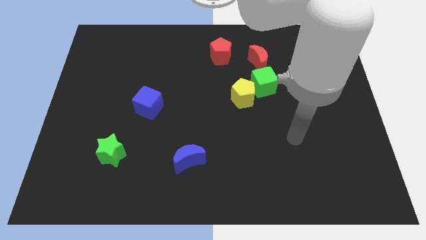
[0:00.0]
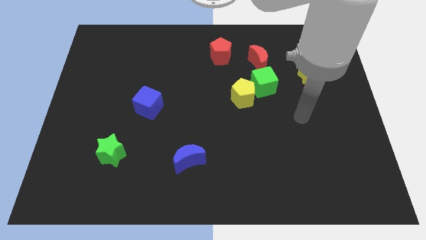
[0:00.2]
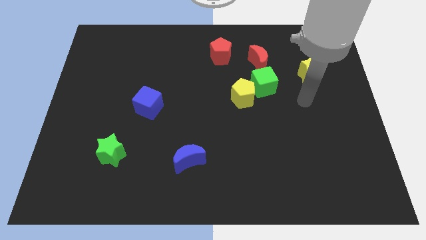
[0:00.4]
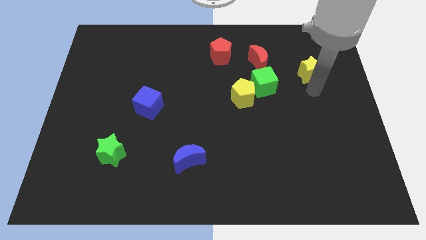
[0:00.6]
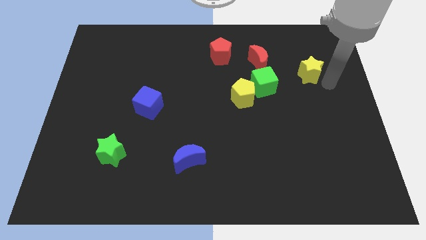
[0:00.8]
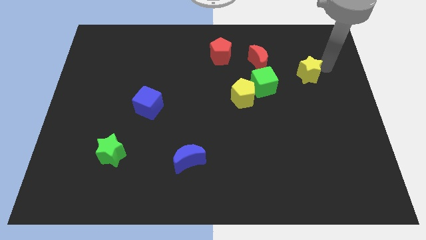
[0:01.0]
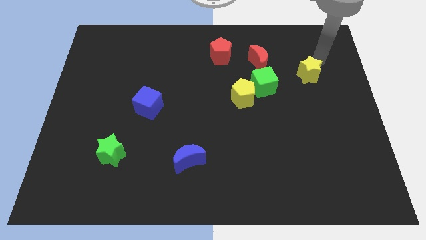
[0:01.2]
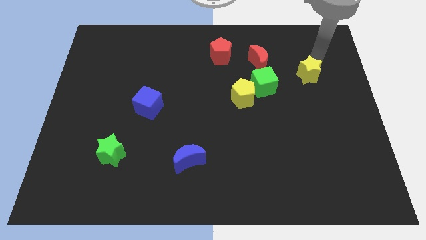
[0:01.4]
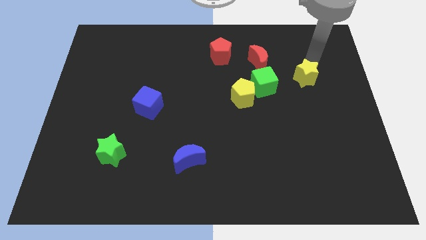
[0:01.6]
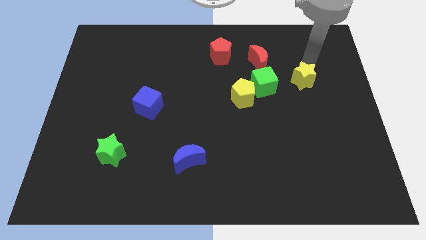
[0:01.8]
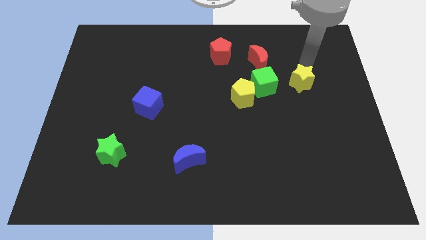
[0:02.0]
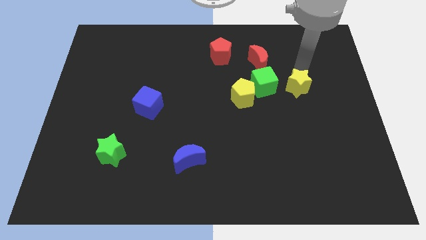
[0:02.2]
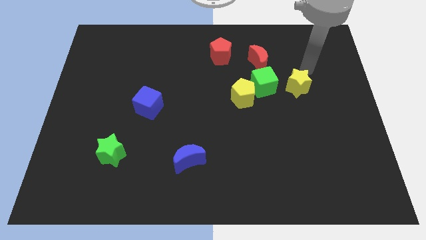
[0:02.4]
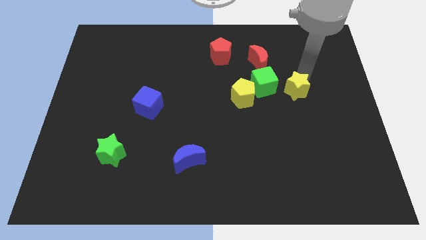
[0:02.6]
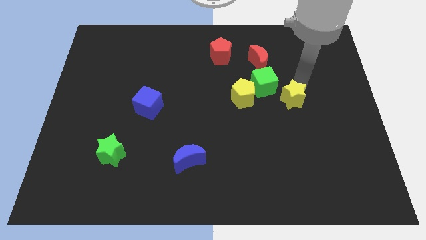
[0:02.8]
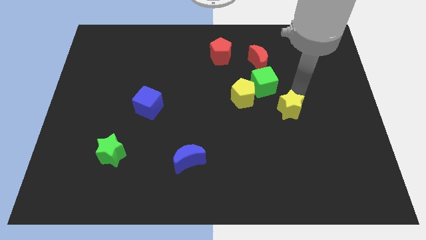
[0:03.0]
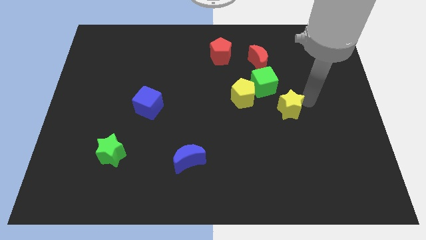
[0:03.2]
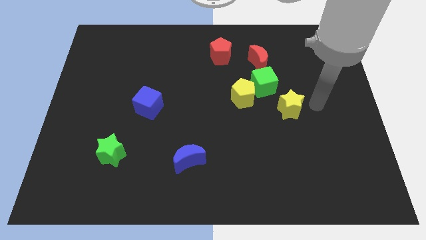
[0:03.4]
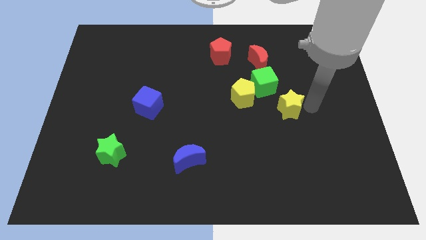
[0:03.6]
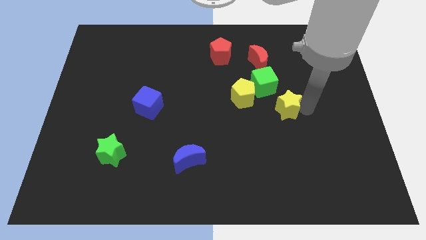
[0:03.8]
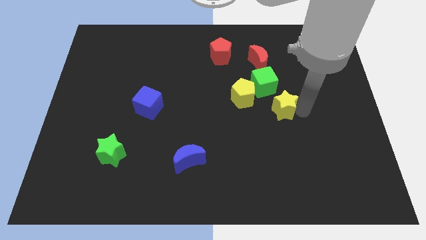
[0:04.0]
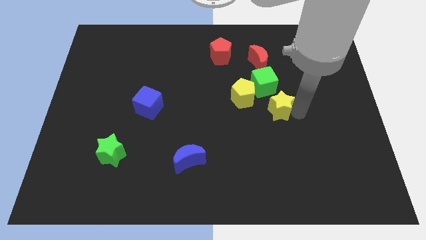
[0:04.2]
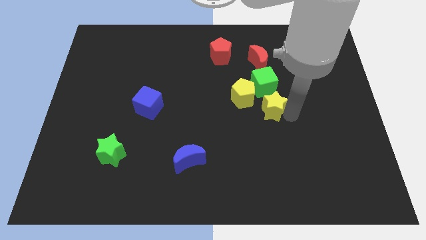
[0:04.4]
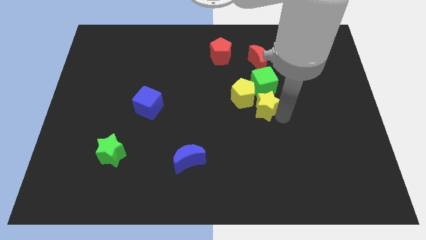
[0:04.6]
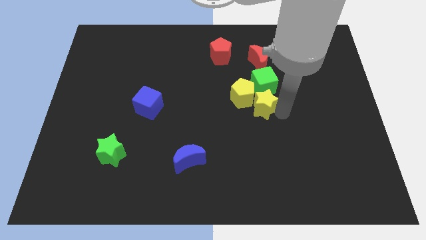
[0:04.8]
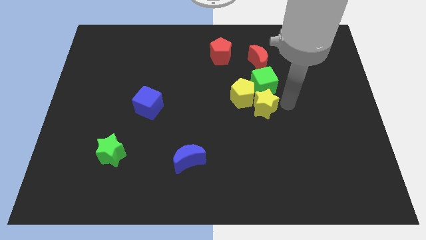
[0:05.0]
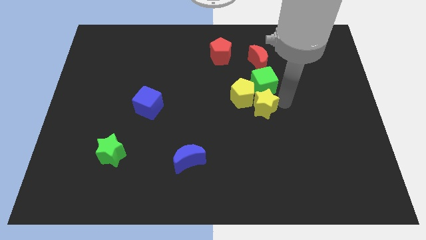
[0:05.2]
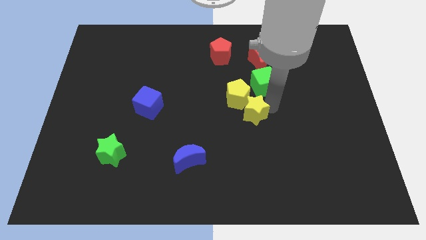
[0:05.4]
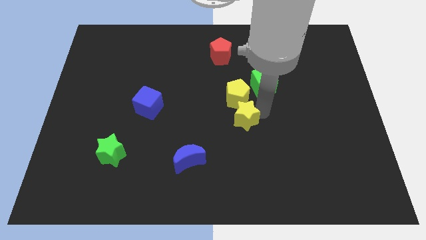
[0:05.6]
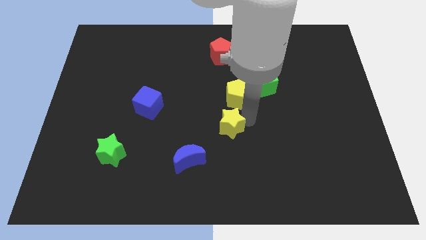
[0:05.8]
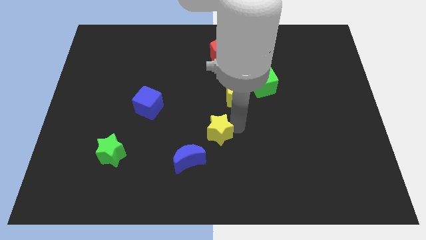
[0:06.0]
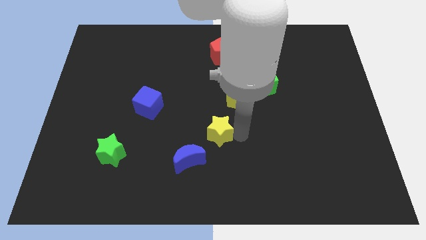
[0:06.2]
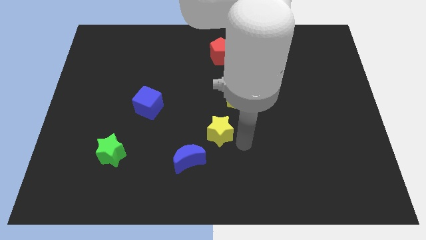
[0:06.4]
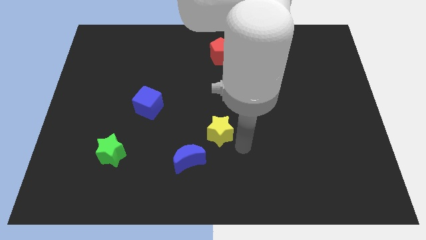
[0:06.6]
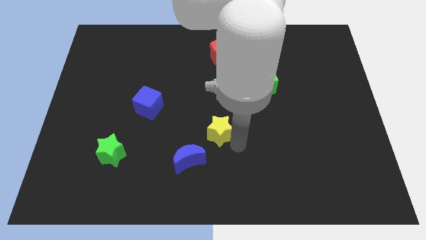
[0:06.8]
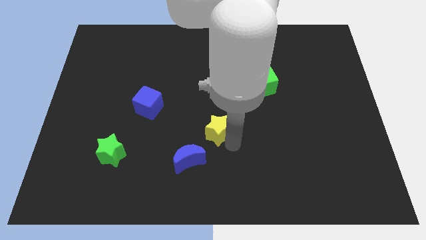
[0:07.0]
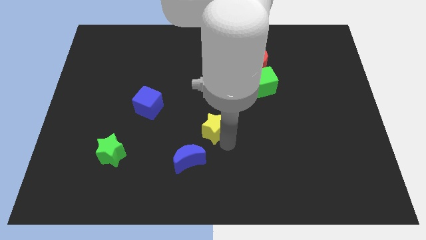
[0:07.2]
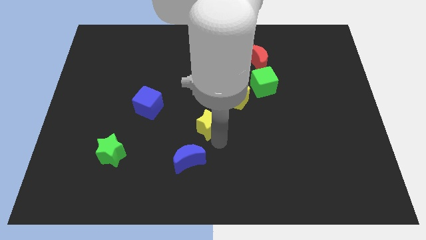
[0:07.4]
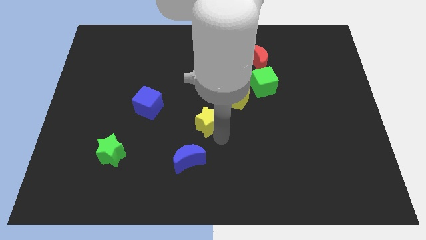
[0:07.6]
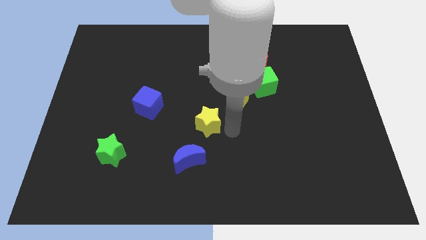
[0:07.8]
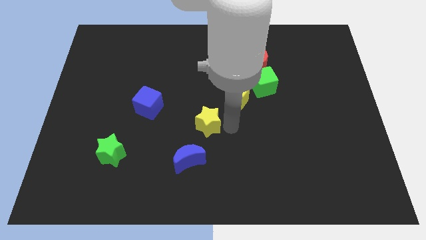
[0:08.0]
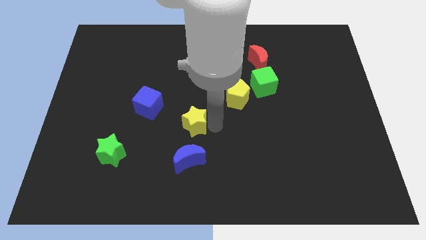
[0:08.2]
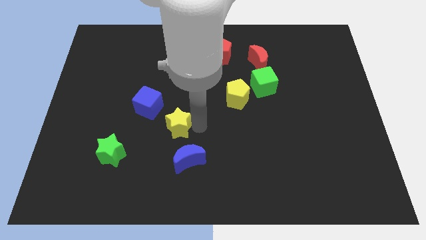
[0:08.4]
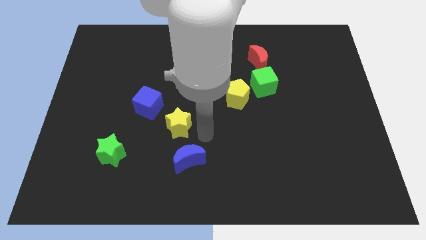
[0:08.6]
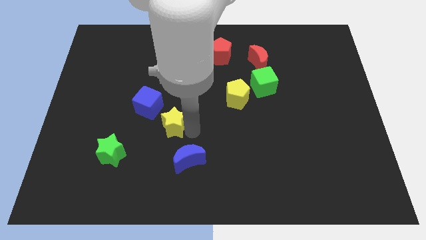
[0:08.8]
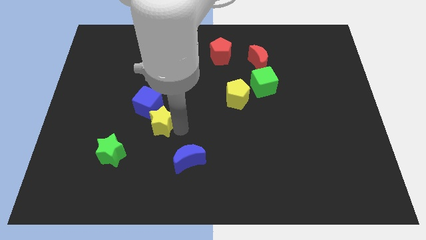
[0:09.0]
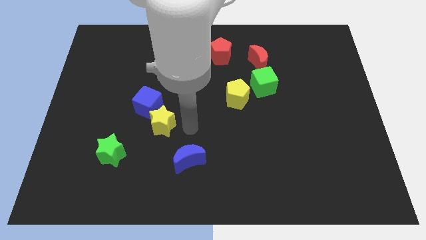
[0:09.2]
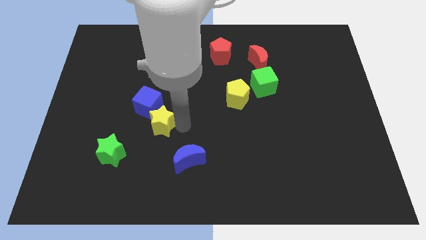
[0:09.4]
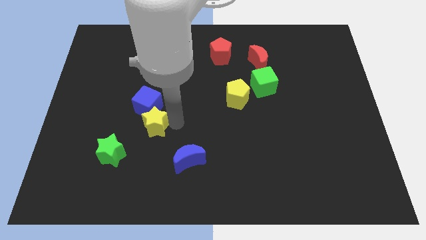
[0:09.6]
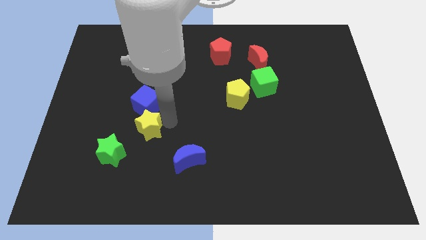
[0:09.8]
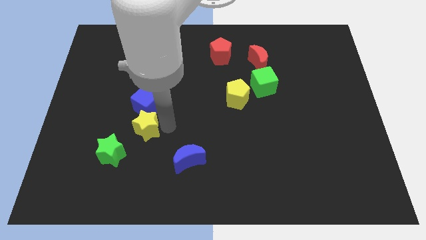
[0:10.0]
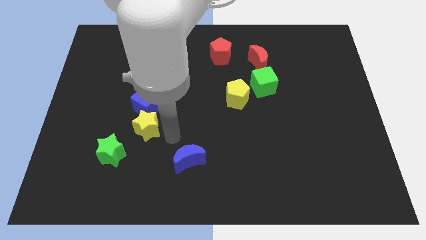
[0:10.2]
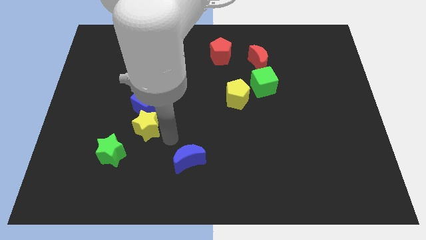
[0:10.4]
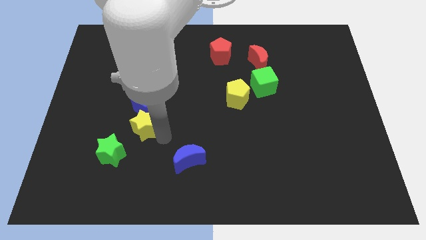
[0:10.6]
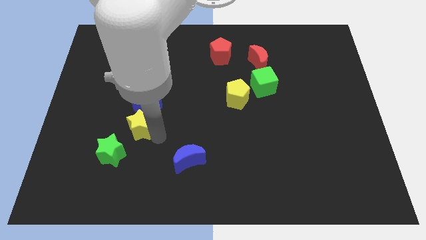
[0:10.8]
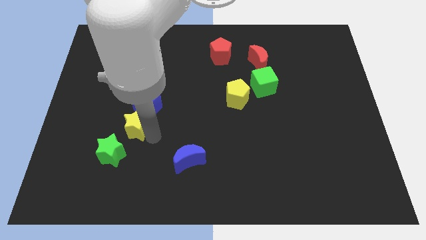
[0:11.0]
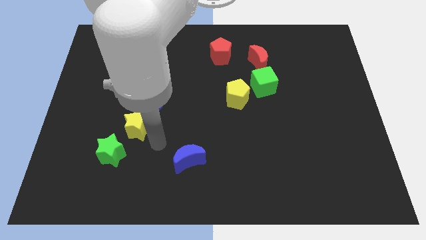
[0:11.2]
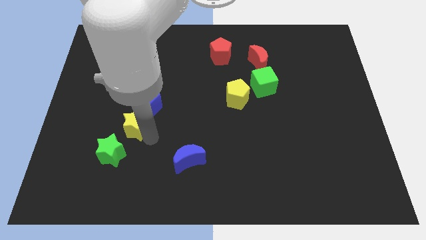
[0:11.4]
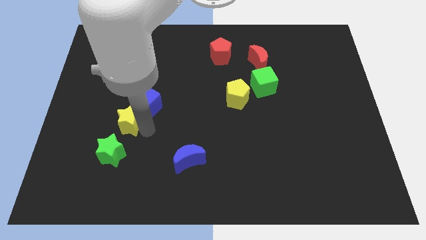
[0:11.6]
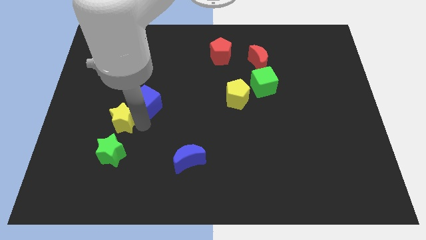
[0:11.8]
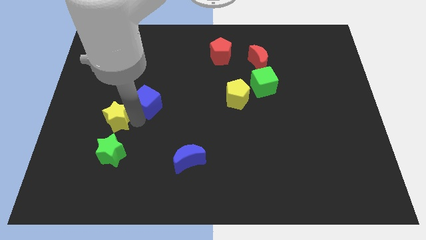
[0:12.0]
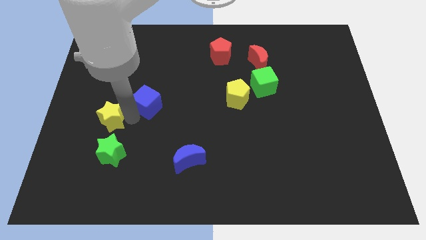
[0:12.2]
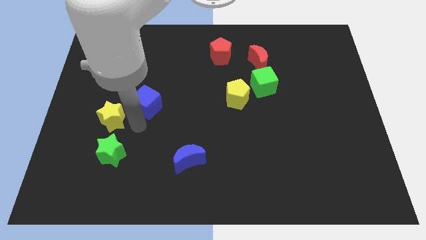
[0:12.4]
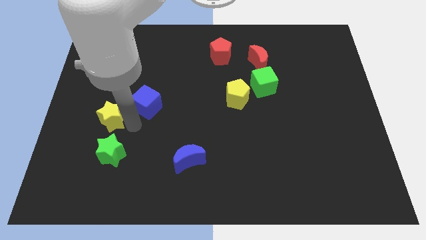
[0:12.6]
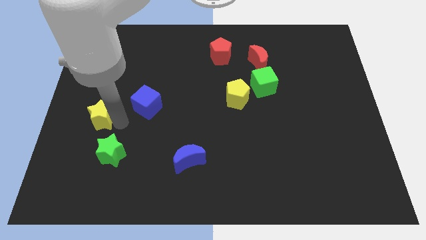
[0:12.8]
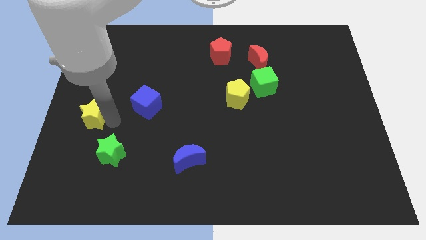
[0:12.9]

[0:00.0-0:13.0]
slide the yellow star to the left side

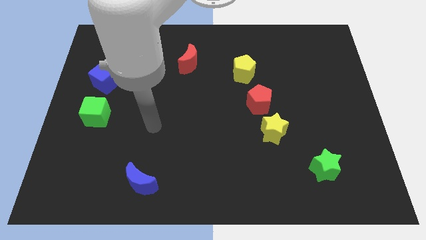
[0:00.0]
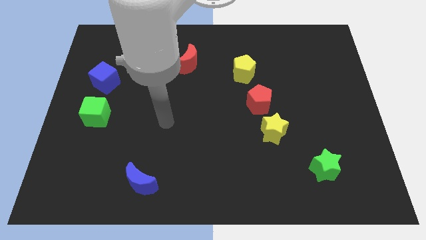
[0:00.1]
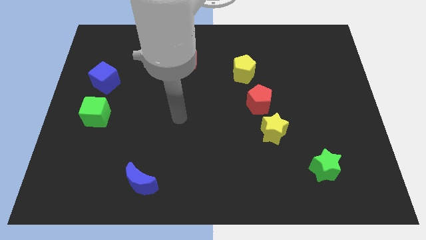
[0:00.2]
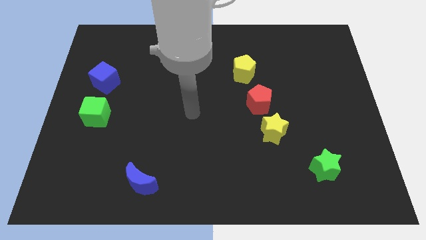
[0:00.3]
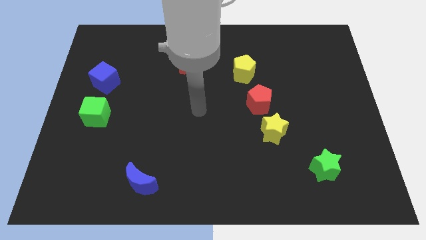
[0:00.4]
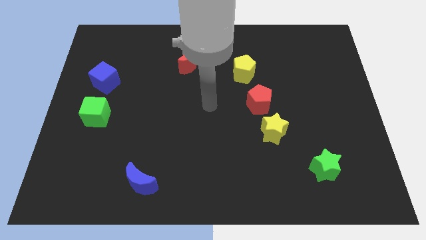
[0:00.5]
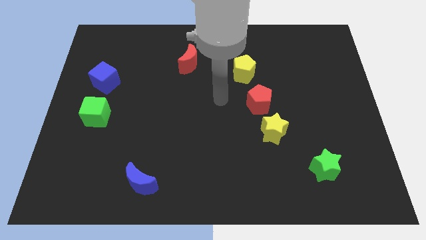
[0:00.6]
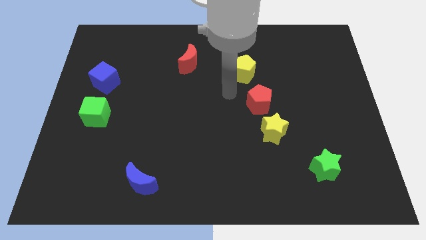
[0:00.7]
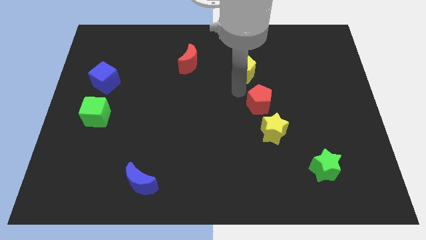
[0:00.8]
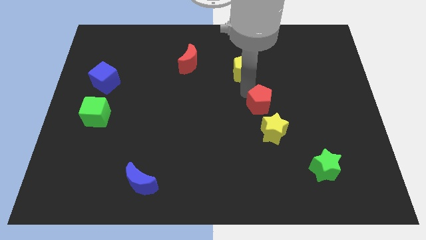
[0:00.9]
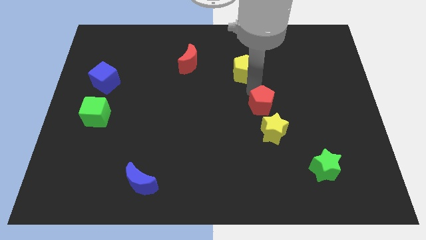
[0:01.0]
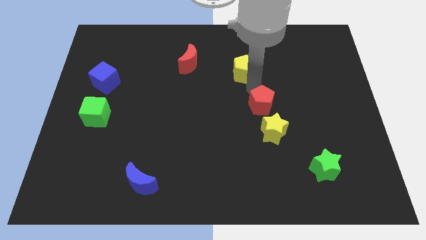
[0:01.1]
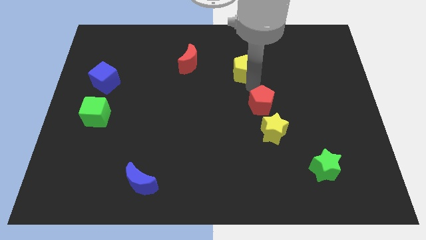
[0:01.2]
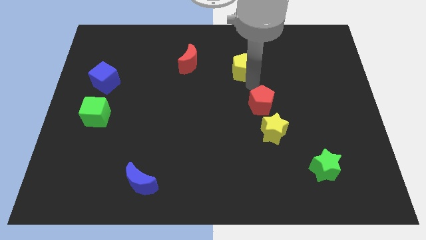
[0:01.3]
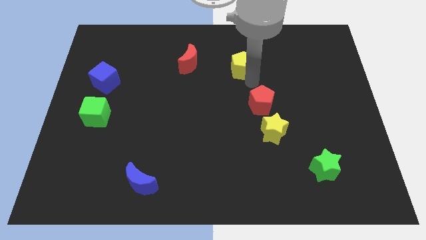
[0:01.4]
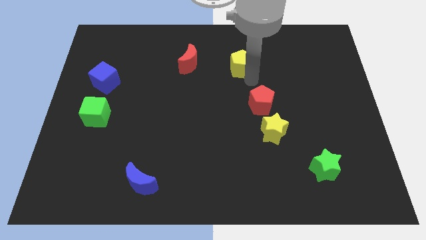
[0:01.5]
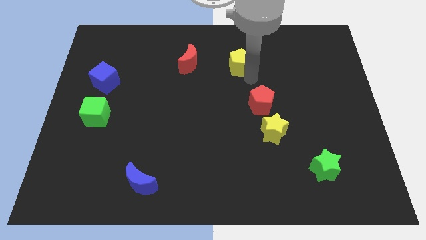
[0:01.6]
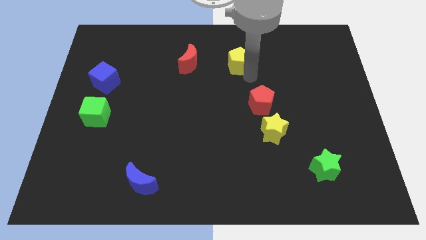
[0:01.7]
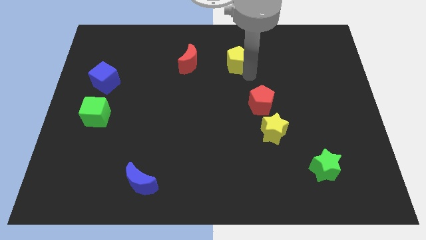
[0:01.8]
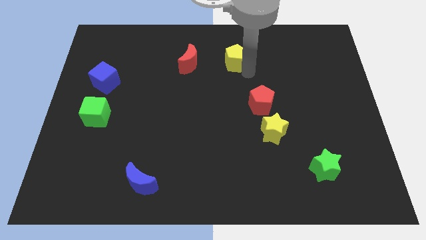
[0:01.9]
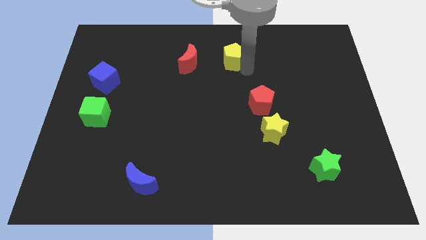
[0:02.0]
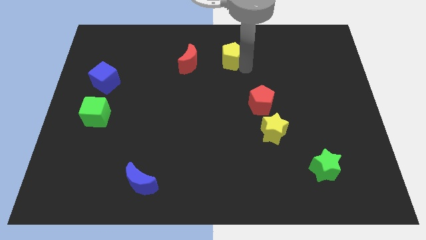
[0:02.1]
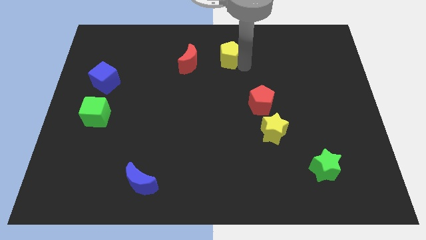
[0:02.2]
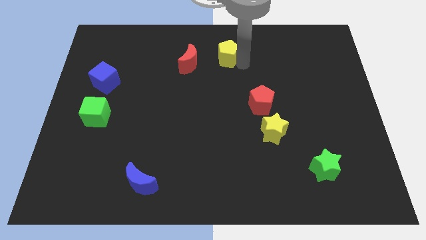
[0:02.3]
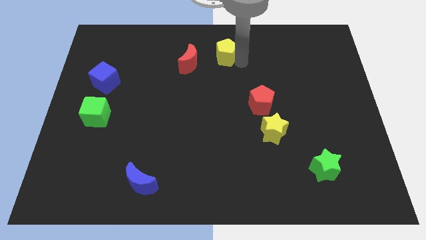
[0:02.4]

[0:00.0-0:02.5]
push the yellow pentagon to the towards your base
